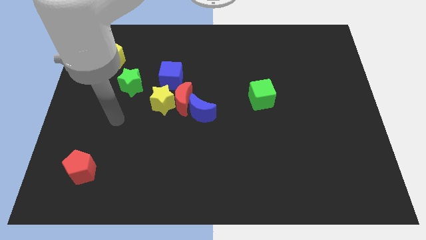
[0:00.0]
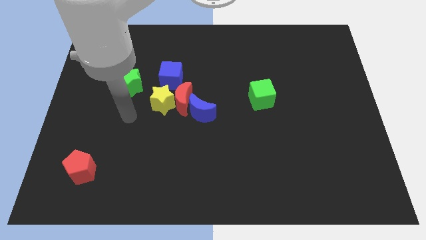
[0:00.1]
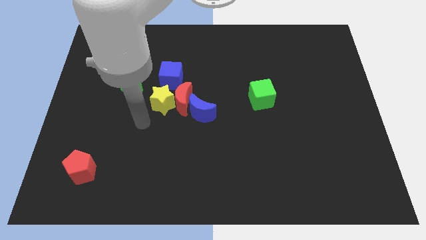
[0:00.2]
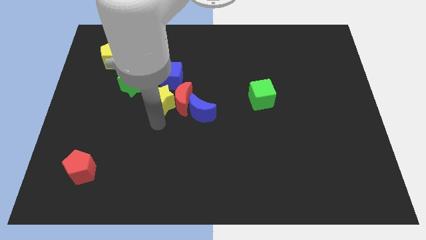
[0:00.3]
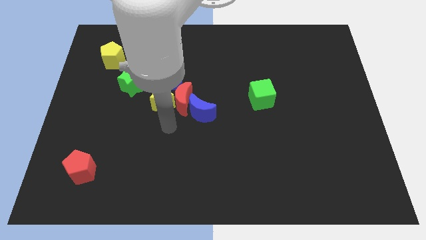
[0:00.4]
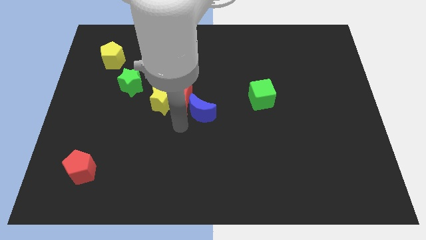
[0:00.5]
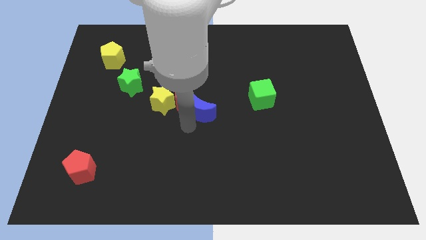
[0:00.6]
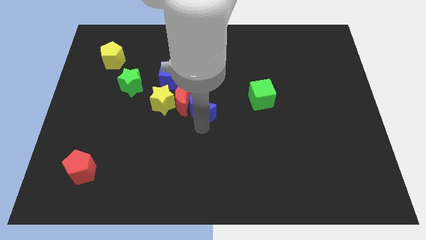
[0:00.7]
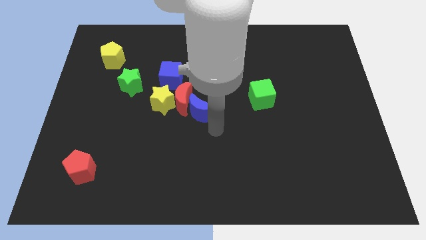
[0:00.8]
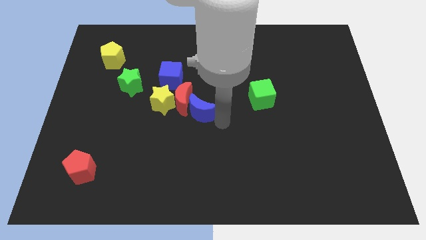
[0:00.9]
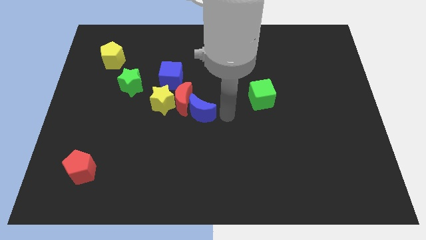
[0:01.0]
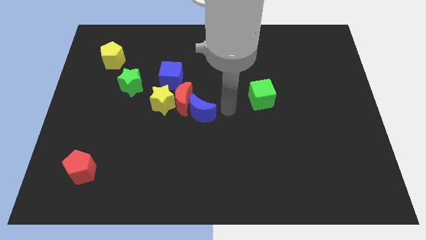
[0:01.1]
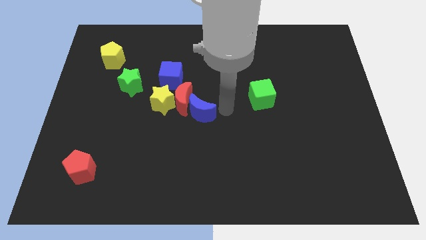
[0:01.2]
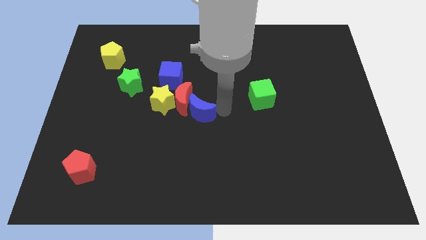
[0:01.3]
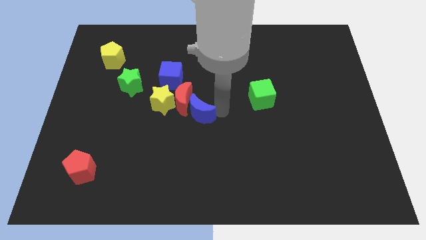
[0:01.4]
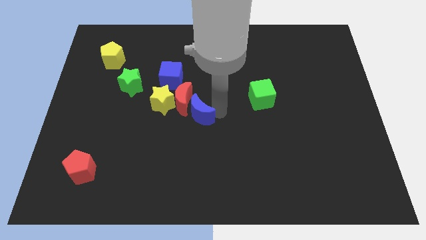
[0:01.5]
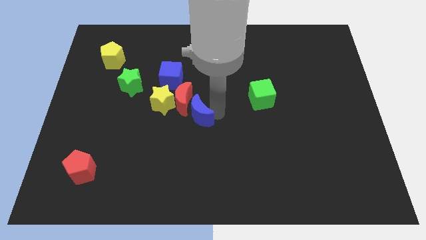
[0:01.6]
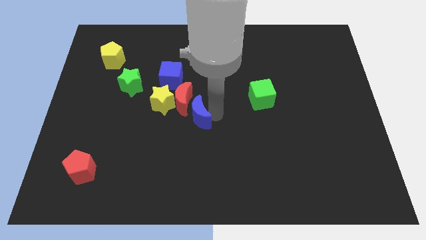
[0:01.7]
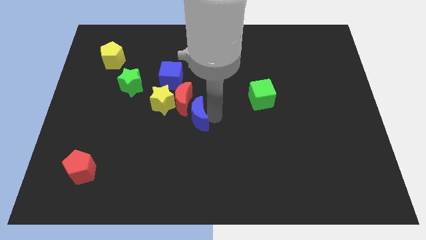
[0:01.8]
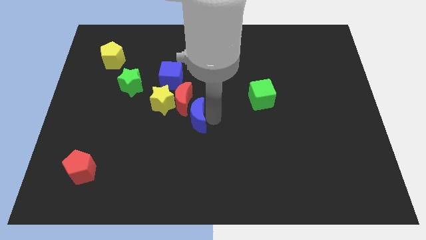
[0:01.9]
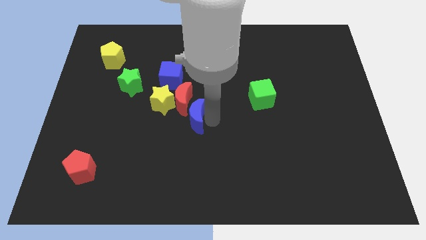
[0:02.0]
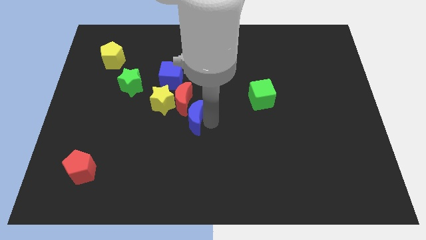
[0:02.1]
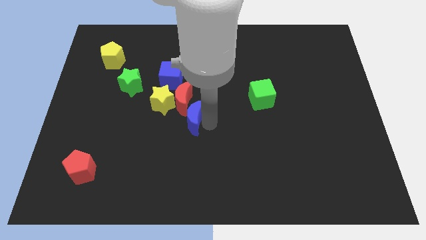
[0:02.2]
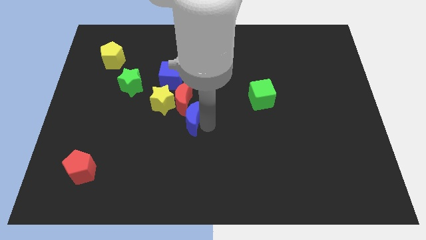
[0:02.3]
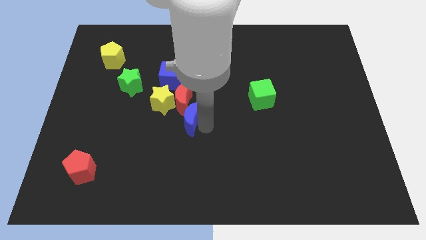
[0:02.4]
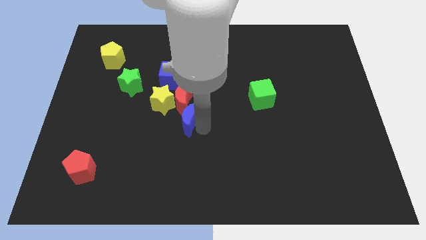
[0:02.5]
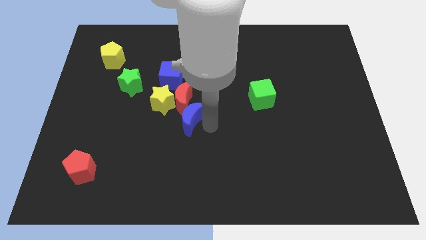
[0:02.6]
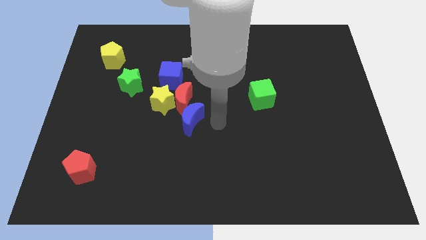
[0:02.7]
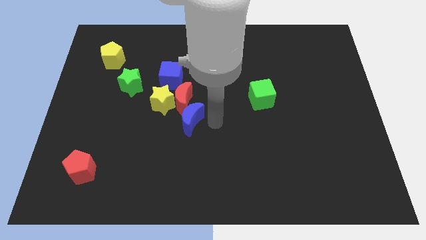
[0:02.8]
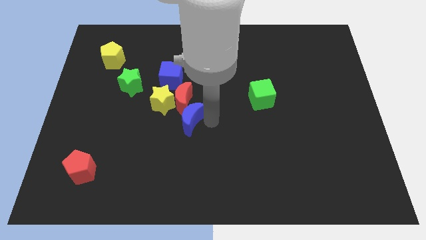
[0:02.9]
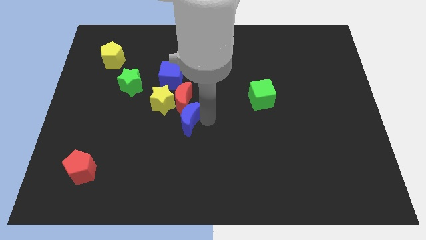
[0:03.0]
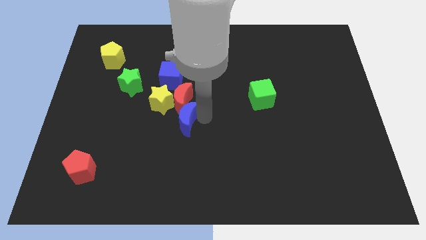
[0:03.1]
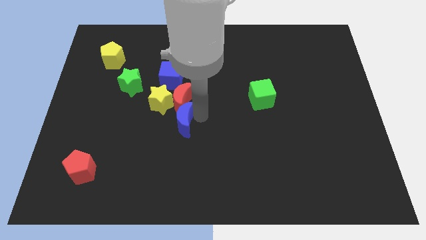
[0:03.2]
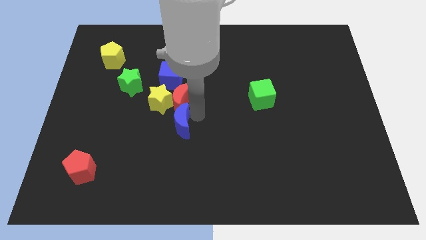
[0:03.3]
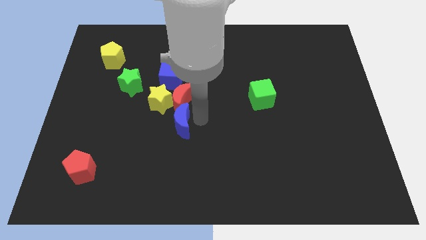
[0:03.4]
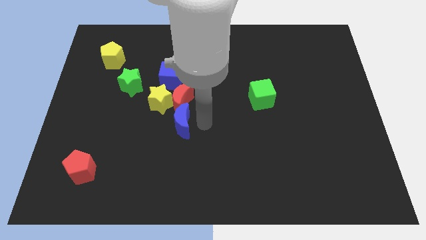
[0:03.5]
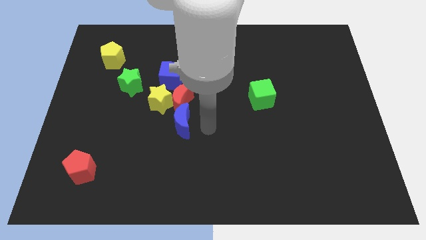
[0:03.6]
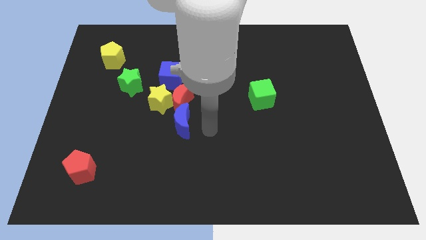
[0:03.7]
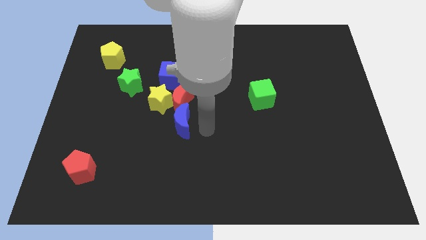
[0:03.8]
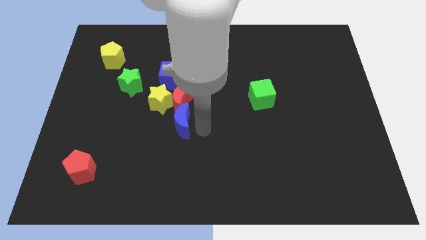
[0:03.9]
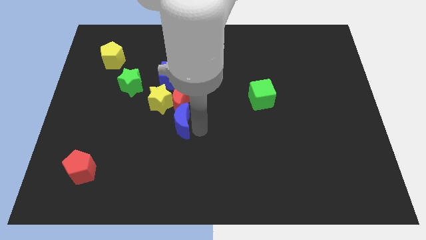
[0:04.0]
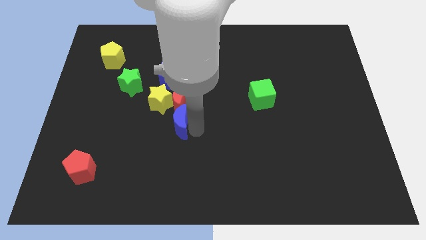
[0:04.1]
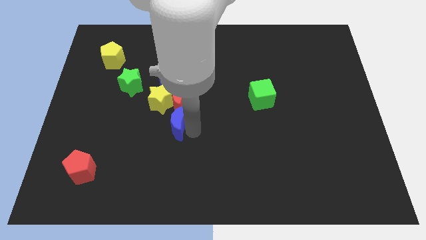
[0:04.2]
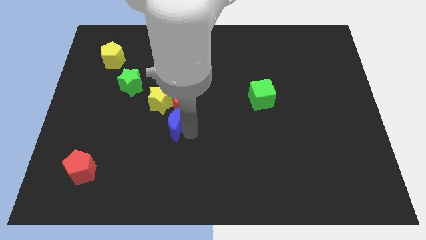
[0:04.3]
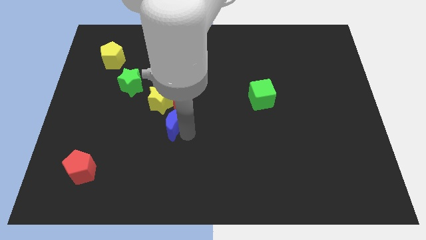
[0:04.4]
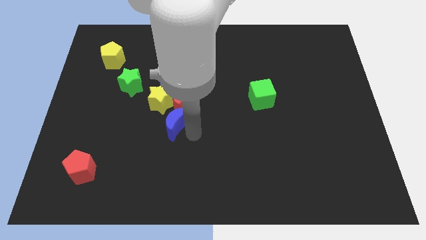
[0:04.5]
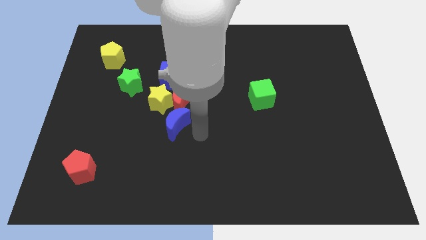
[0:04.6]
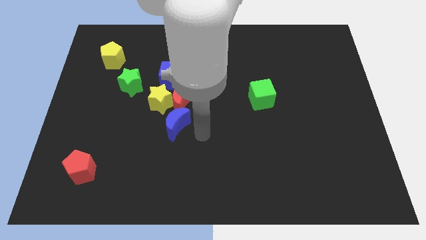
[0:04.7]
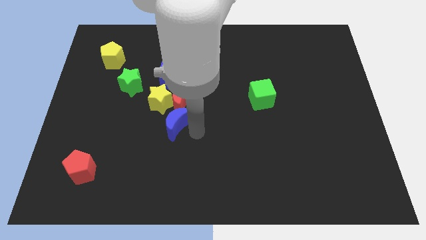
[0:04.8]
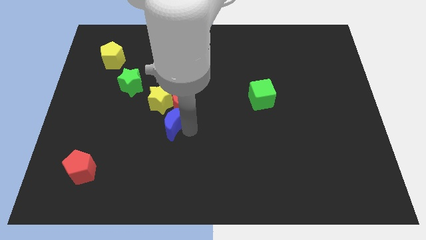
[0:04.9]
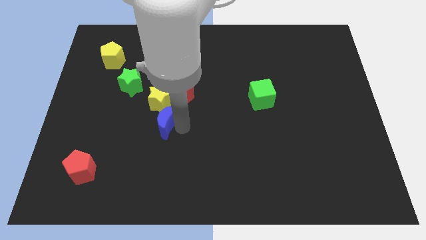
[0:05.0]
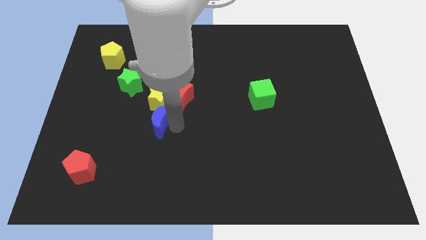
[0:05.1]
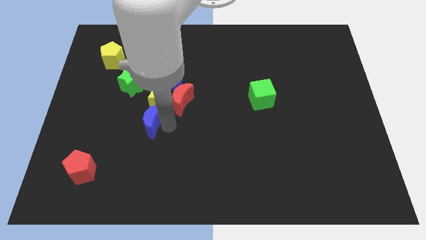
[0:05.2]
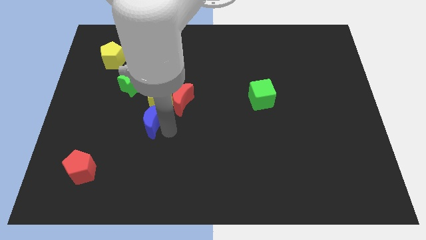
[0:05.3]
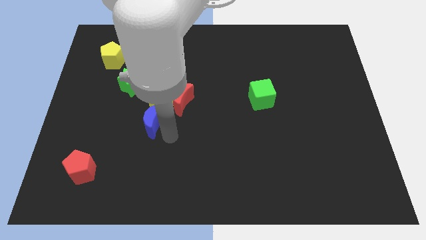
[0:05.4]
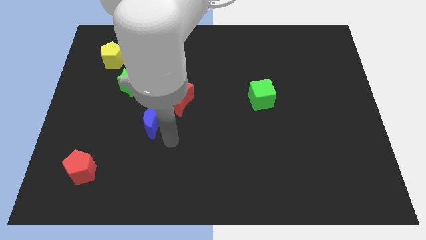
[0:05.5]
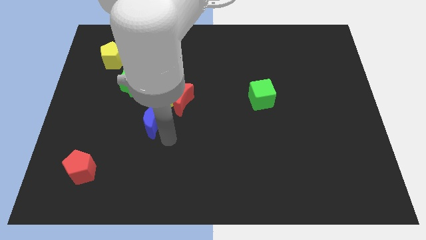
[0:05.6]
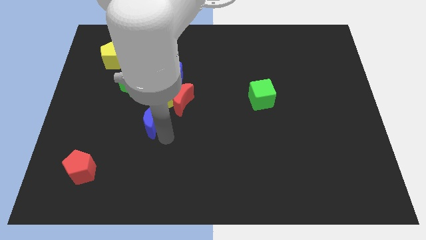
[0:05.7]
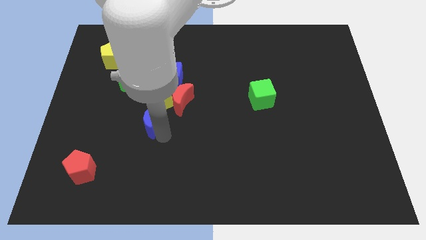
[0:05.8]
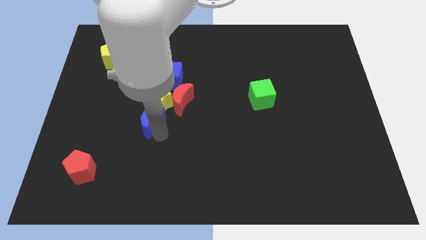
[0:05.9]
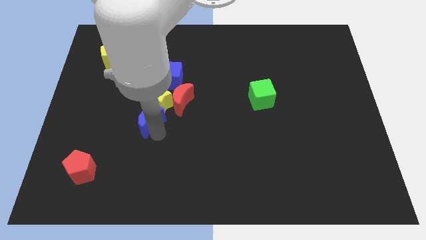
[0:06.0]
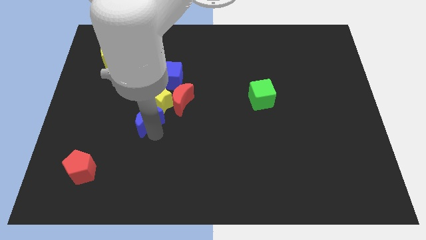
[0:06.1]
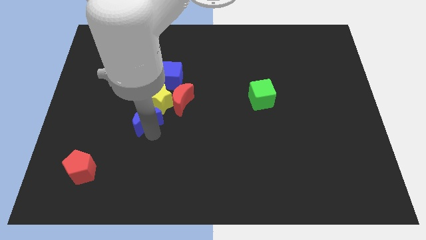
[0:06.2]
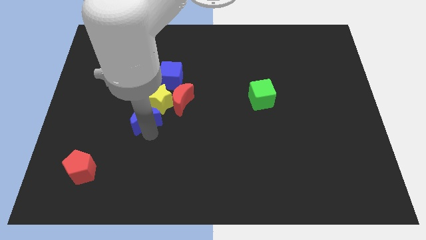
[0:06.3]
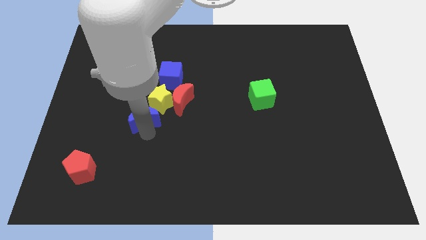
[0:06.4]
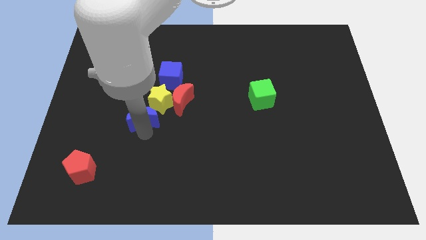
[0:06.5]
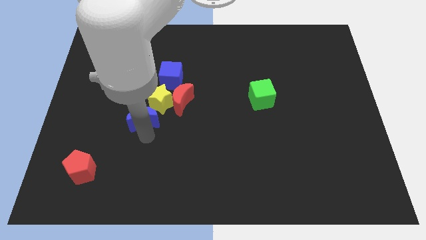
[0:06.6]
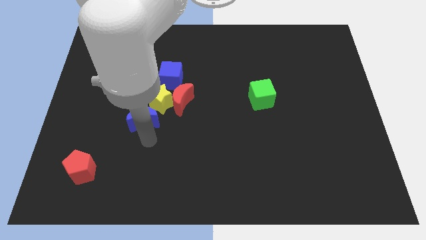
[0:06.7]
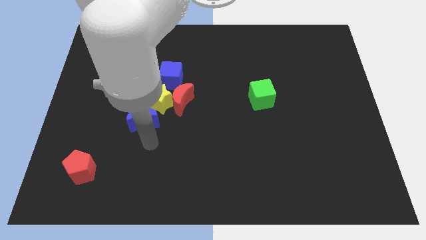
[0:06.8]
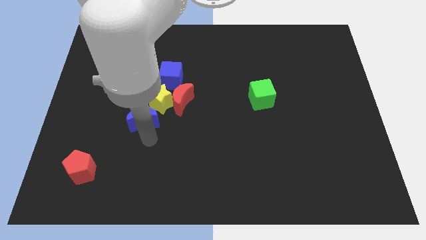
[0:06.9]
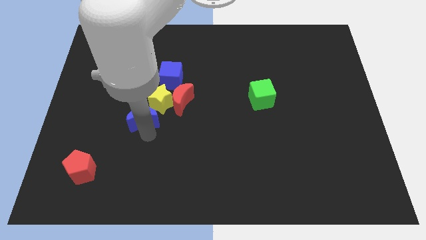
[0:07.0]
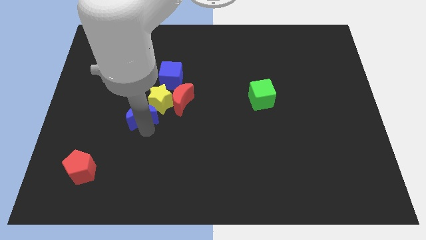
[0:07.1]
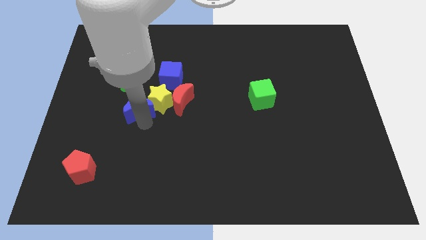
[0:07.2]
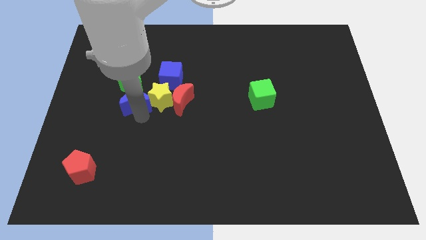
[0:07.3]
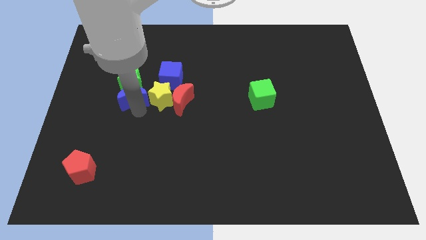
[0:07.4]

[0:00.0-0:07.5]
put the blue moon towards the green star

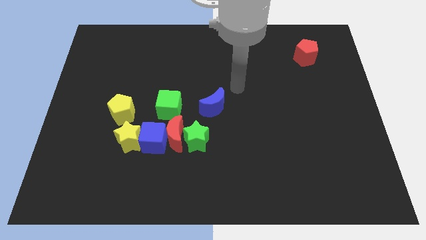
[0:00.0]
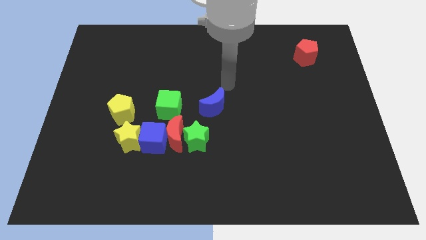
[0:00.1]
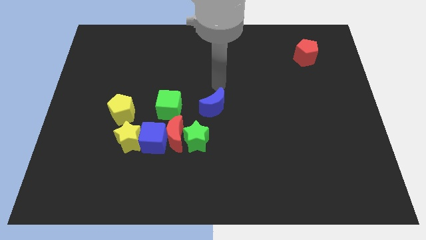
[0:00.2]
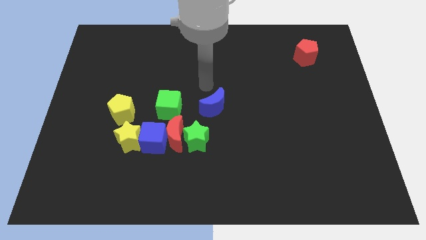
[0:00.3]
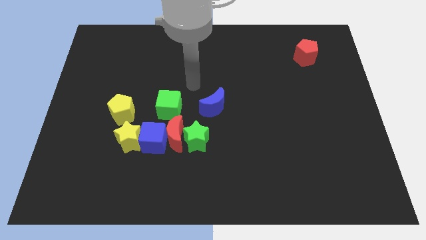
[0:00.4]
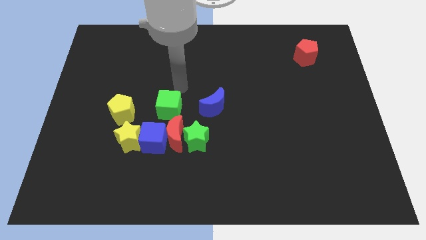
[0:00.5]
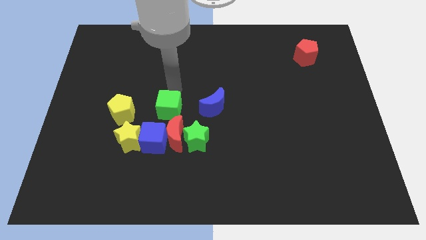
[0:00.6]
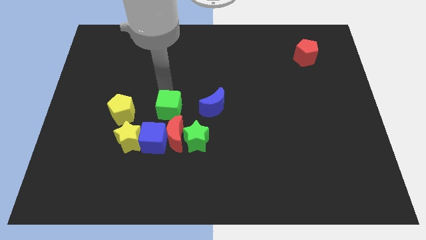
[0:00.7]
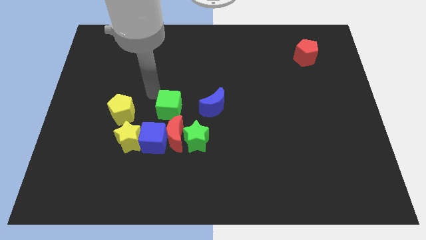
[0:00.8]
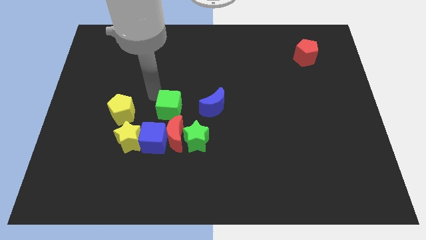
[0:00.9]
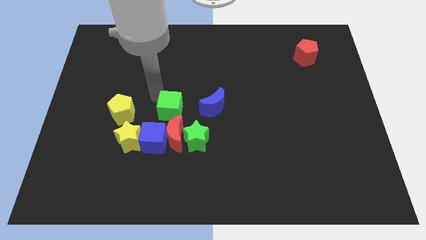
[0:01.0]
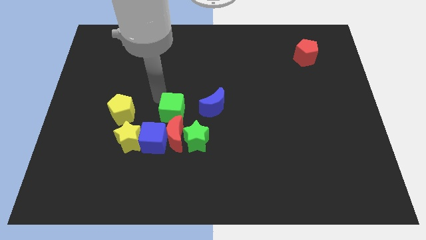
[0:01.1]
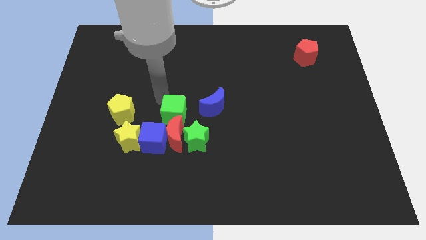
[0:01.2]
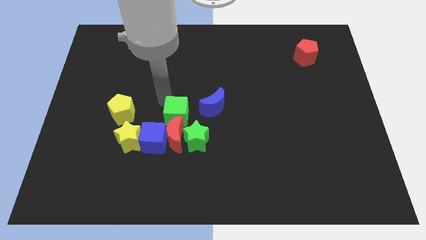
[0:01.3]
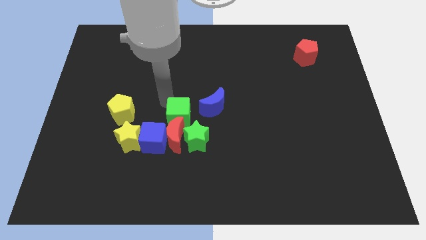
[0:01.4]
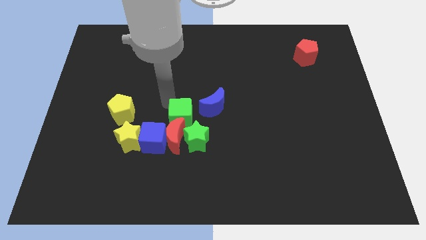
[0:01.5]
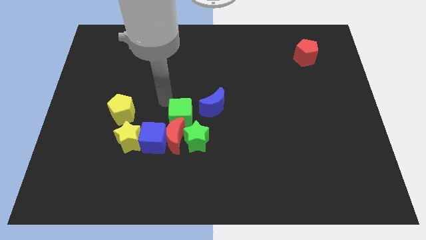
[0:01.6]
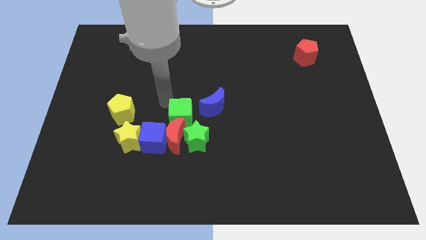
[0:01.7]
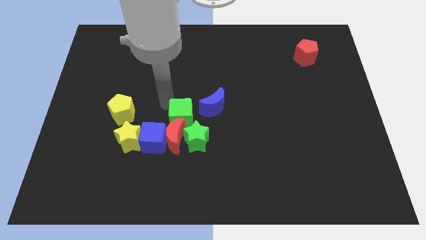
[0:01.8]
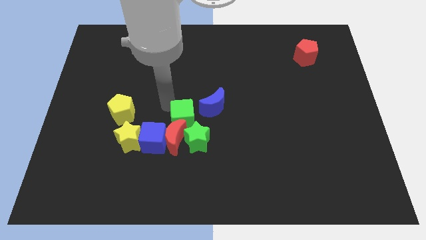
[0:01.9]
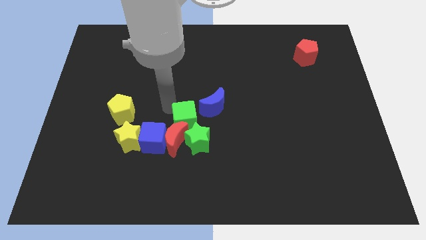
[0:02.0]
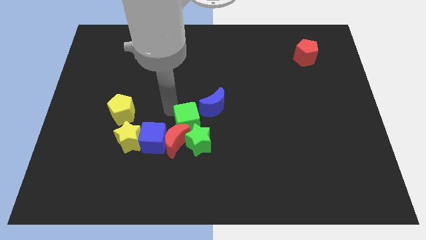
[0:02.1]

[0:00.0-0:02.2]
move the green cube next to the green star
